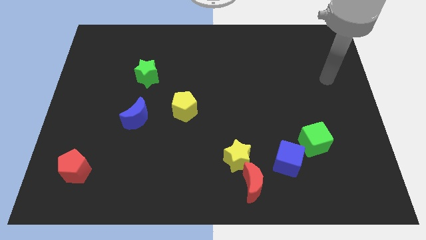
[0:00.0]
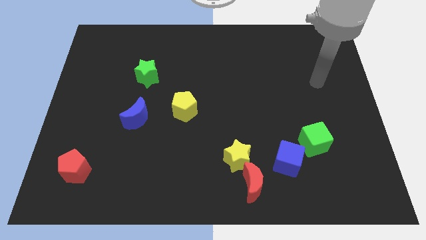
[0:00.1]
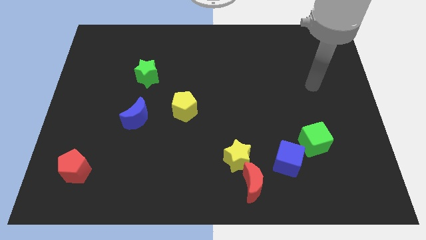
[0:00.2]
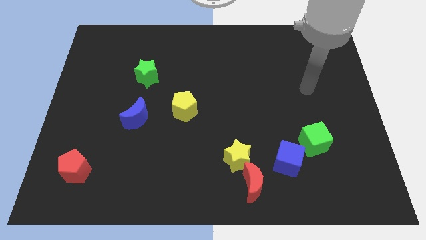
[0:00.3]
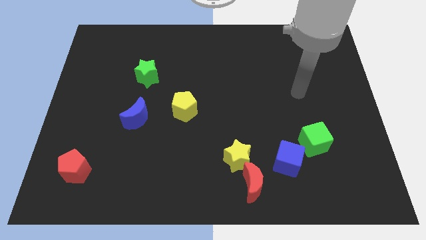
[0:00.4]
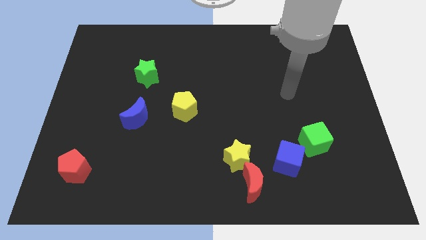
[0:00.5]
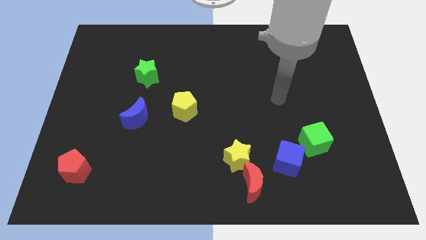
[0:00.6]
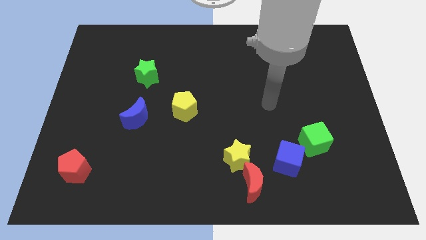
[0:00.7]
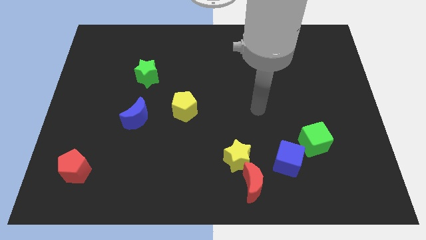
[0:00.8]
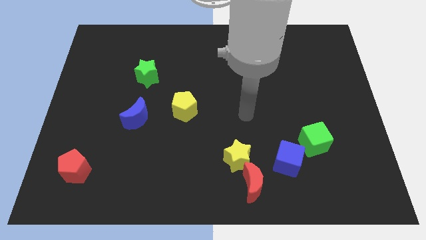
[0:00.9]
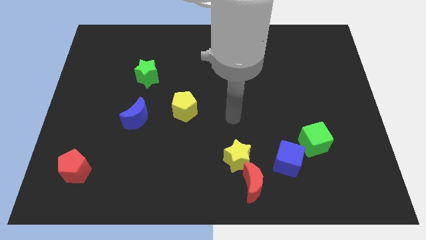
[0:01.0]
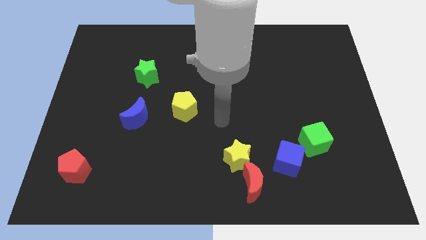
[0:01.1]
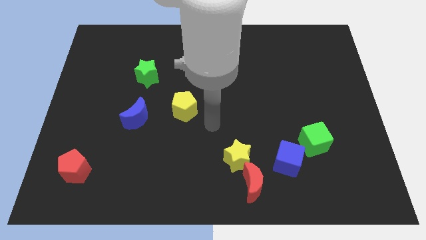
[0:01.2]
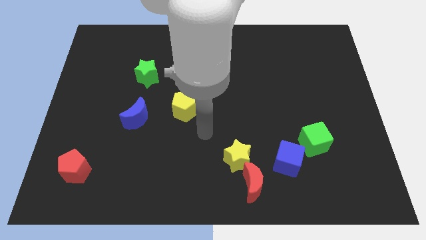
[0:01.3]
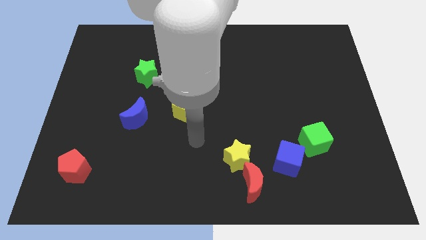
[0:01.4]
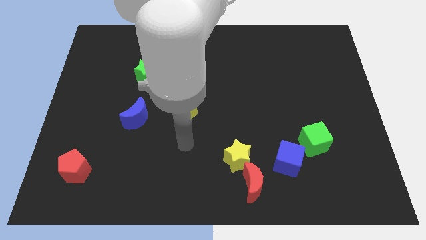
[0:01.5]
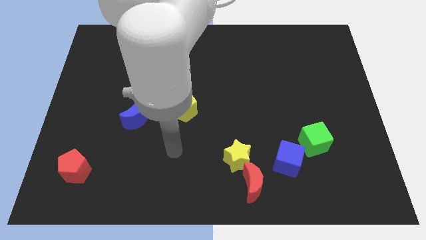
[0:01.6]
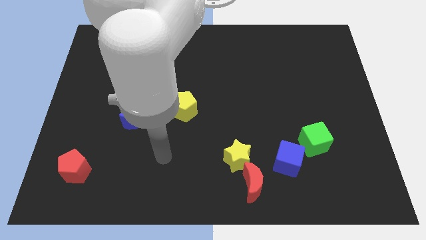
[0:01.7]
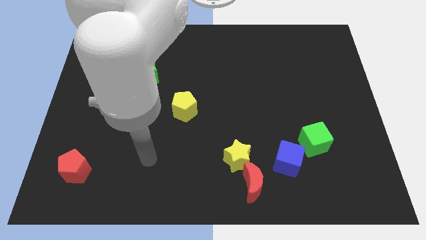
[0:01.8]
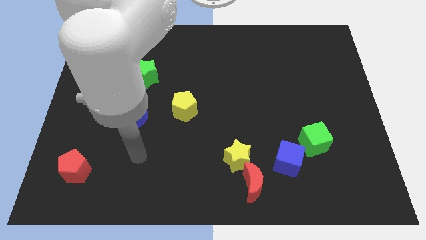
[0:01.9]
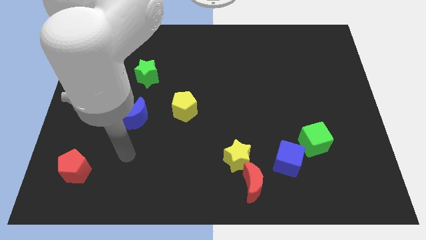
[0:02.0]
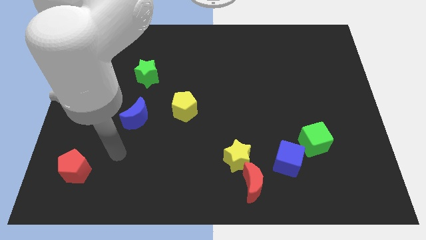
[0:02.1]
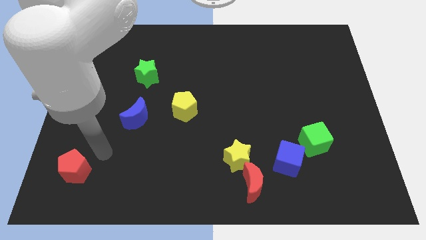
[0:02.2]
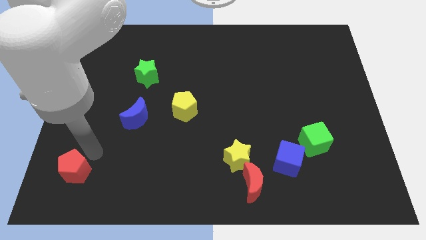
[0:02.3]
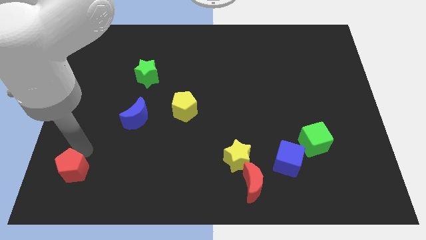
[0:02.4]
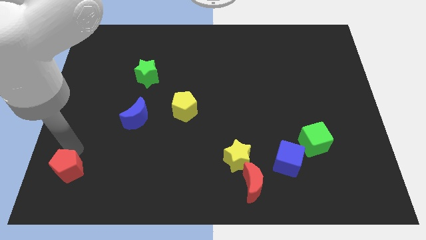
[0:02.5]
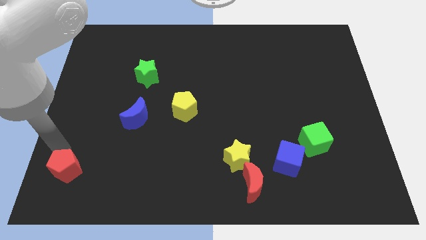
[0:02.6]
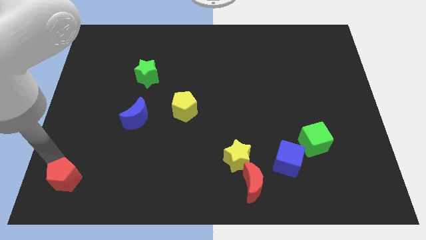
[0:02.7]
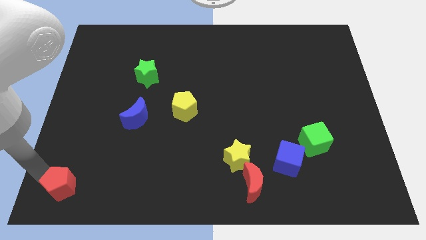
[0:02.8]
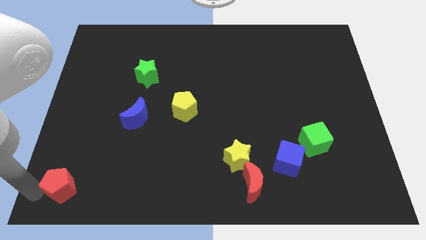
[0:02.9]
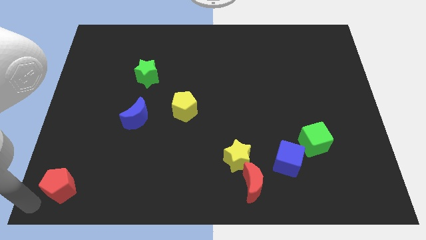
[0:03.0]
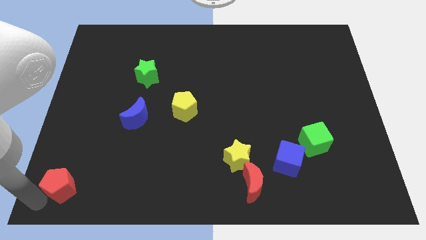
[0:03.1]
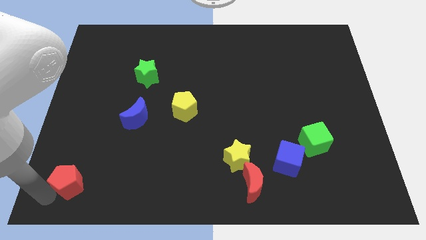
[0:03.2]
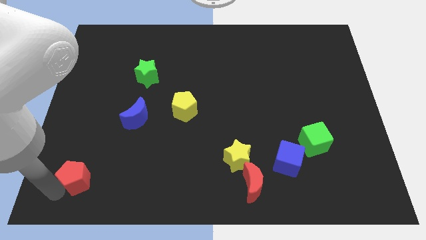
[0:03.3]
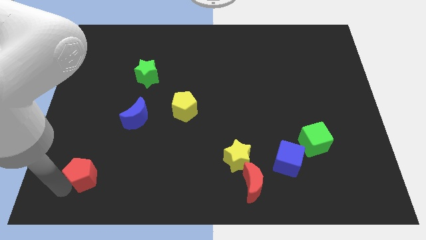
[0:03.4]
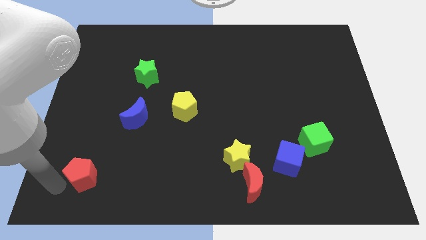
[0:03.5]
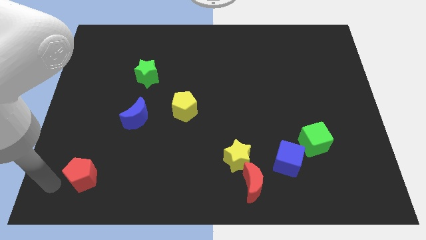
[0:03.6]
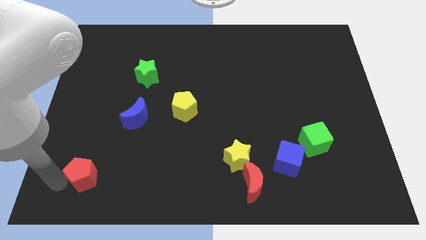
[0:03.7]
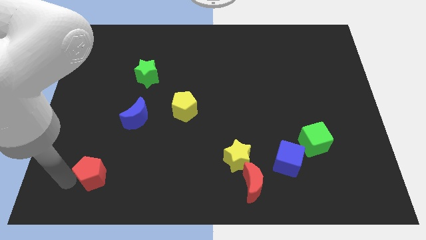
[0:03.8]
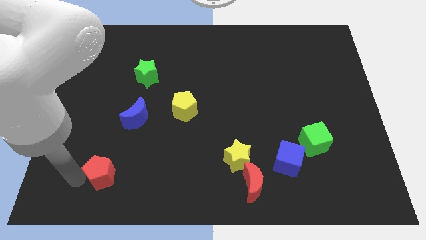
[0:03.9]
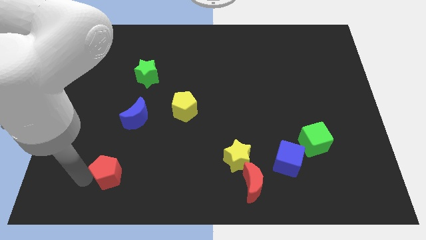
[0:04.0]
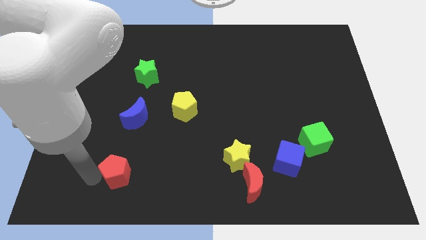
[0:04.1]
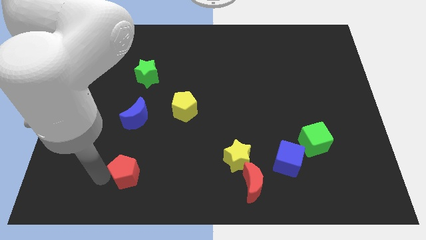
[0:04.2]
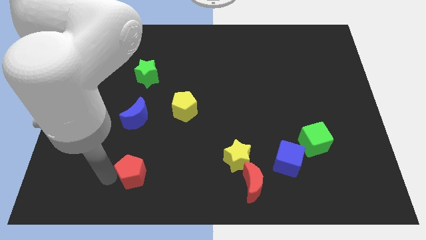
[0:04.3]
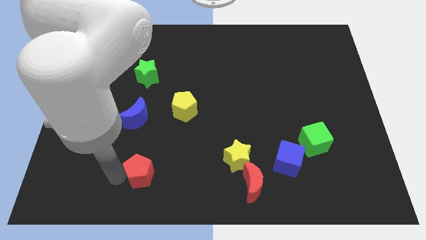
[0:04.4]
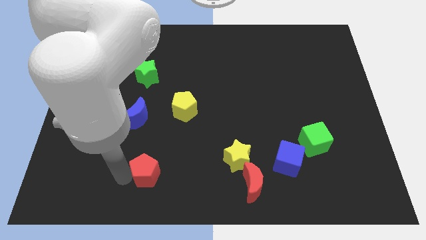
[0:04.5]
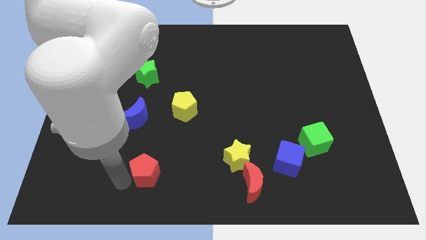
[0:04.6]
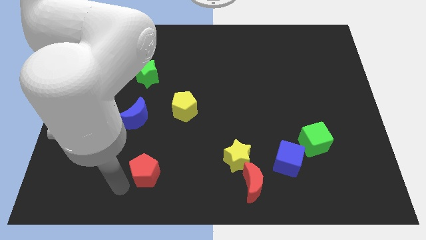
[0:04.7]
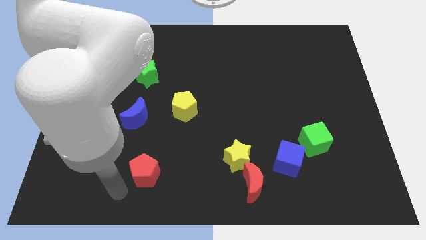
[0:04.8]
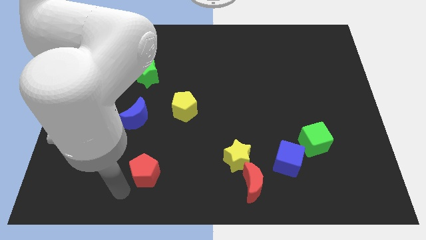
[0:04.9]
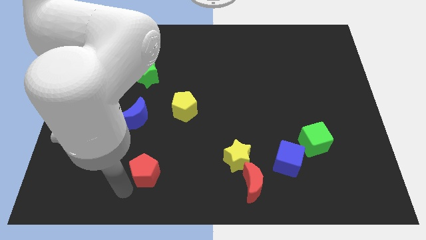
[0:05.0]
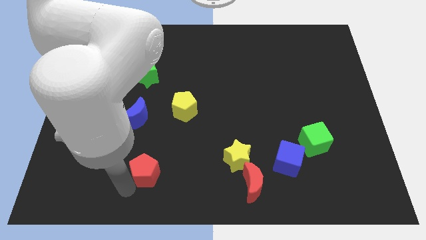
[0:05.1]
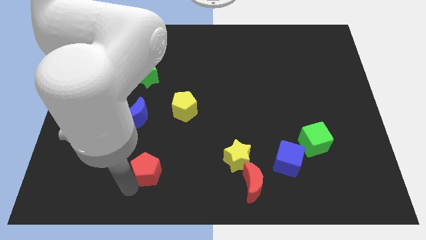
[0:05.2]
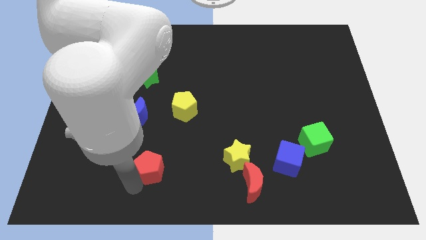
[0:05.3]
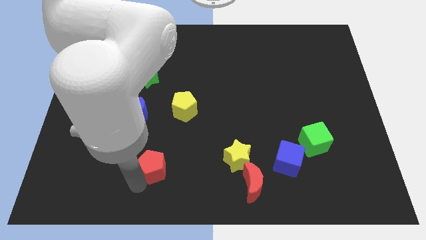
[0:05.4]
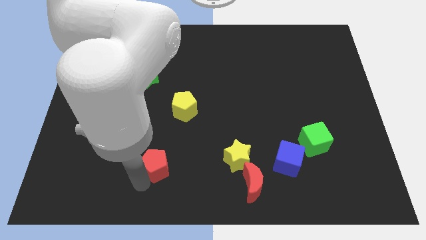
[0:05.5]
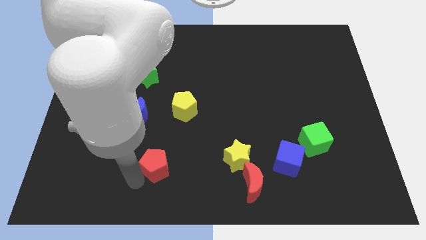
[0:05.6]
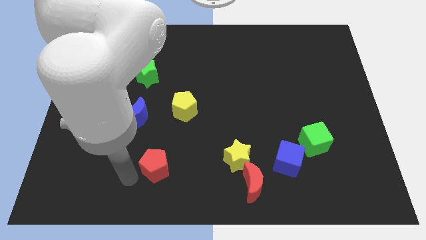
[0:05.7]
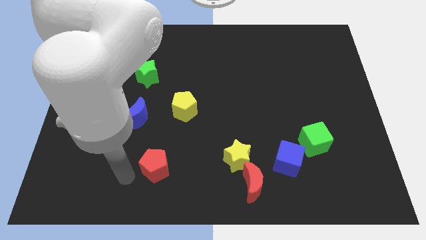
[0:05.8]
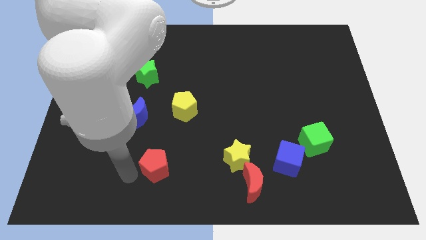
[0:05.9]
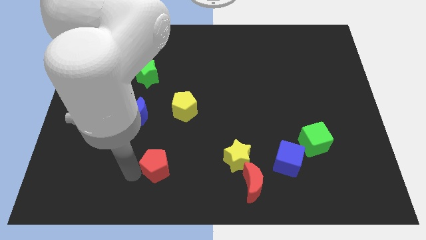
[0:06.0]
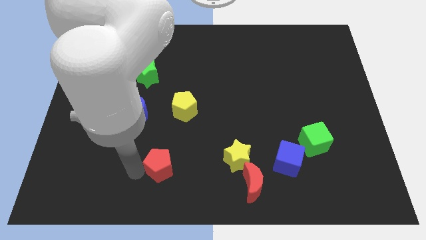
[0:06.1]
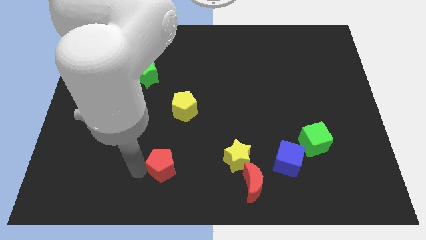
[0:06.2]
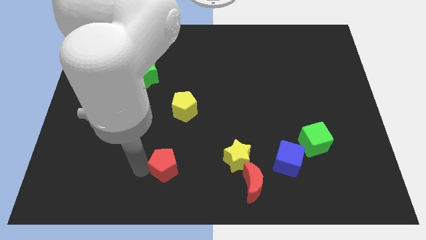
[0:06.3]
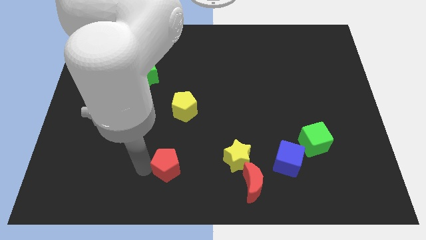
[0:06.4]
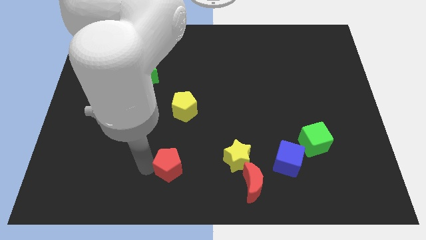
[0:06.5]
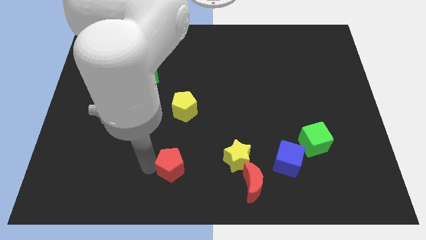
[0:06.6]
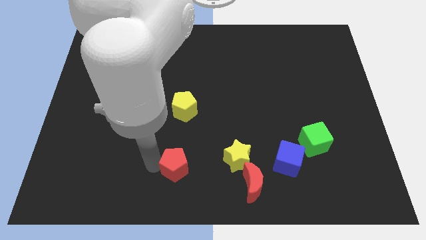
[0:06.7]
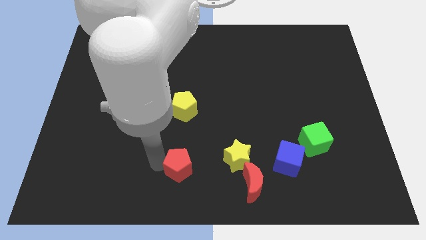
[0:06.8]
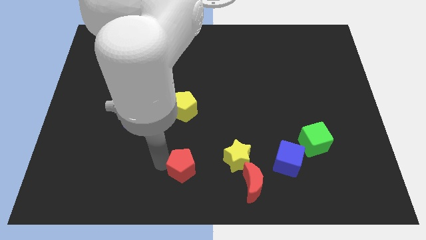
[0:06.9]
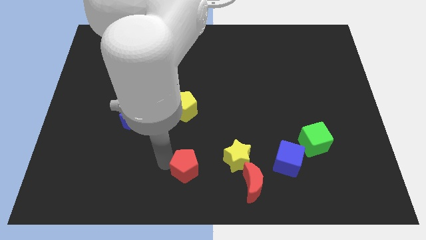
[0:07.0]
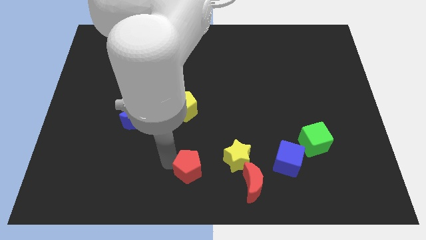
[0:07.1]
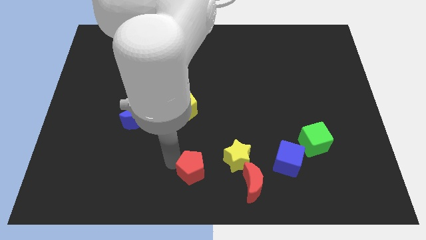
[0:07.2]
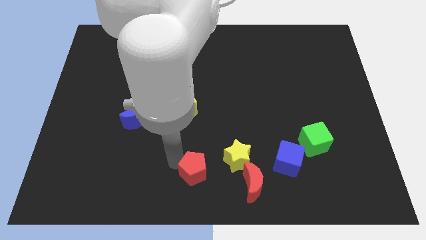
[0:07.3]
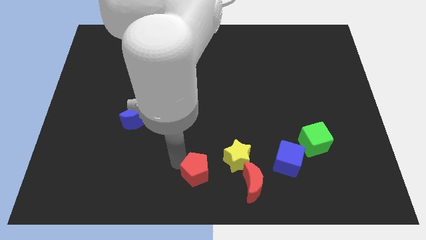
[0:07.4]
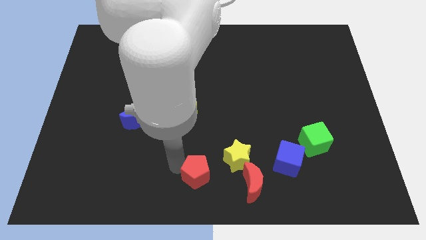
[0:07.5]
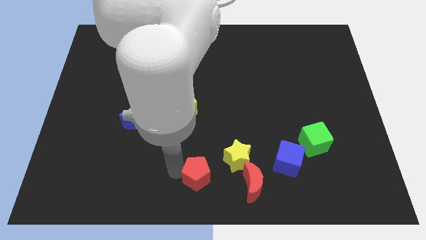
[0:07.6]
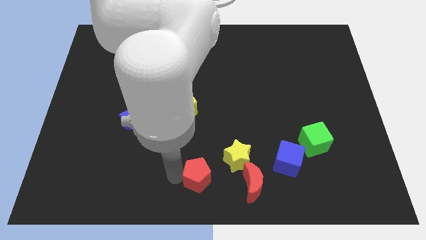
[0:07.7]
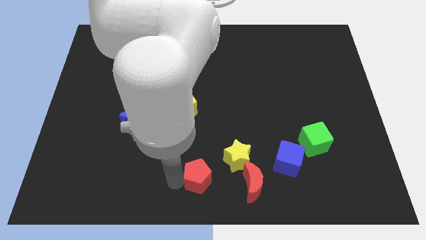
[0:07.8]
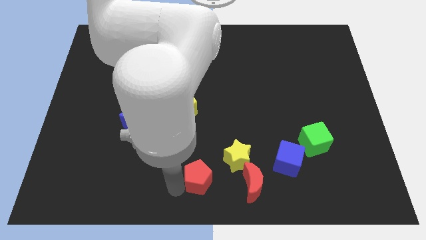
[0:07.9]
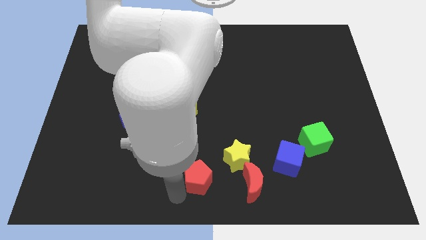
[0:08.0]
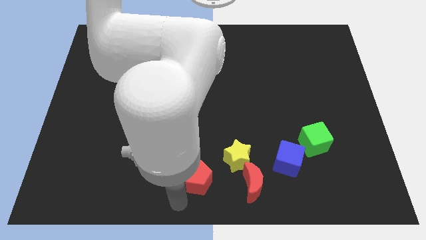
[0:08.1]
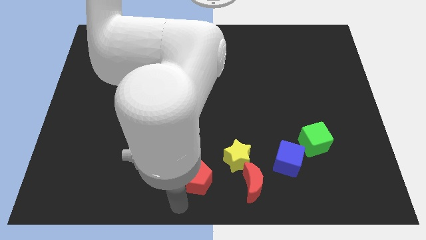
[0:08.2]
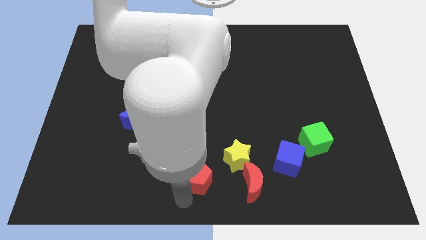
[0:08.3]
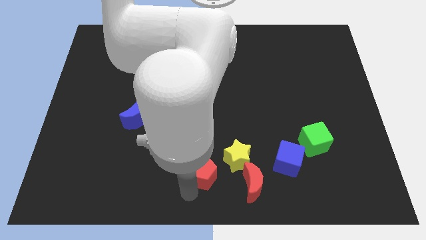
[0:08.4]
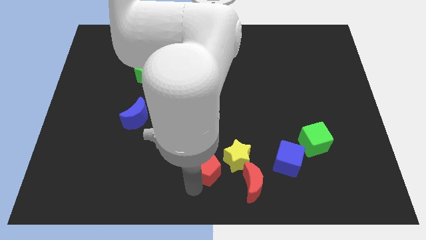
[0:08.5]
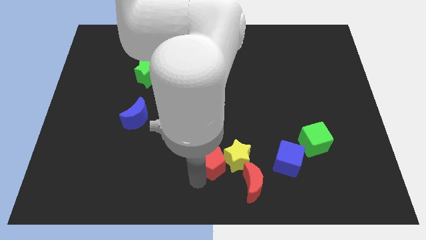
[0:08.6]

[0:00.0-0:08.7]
slide the red pentagon to the left of the blue cube
